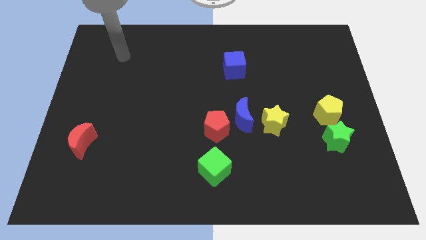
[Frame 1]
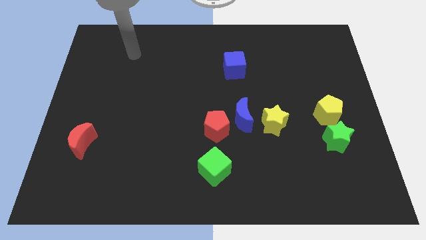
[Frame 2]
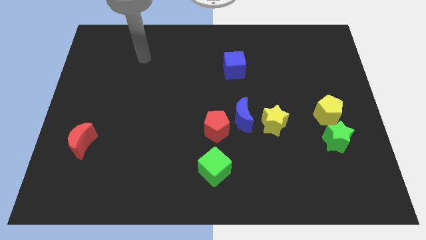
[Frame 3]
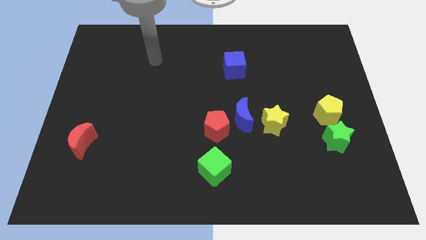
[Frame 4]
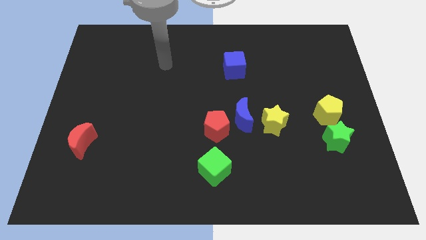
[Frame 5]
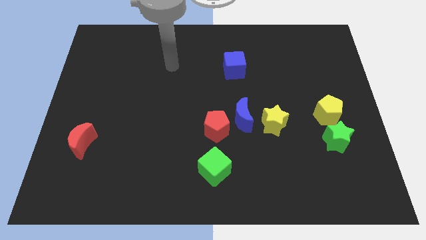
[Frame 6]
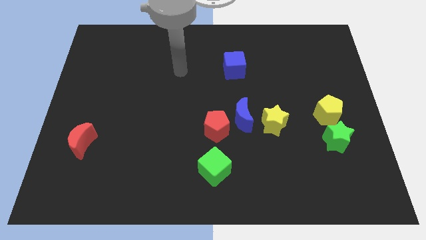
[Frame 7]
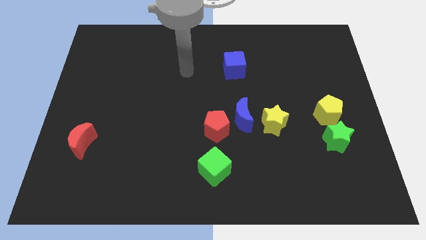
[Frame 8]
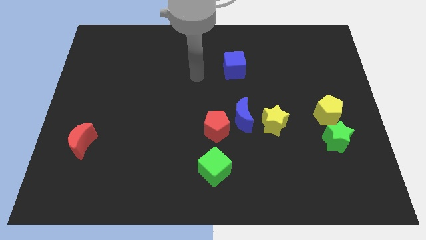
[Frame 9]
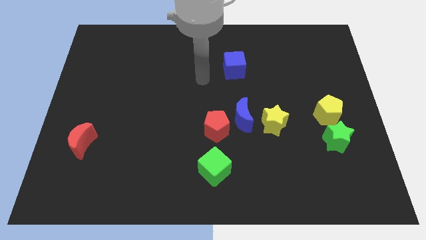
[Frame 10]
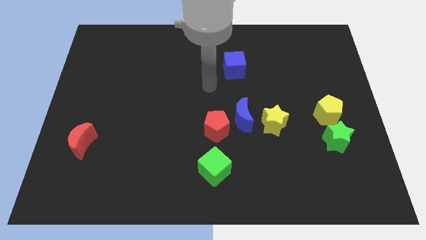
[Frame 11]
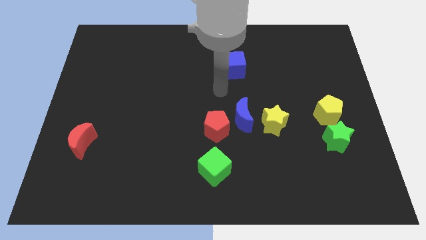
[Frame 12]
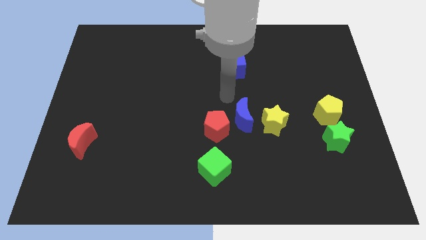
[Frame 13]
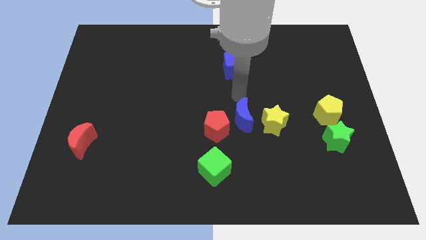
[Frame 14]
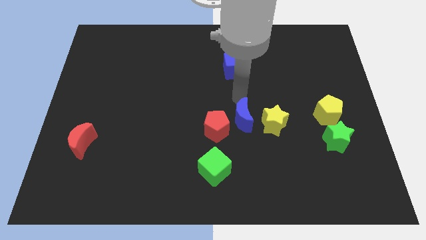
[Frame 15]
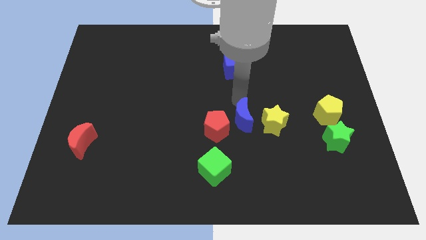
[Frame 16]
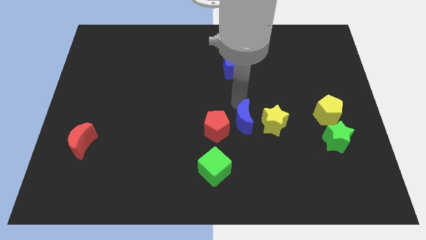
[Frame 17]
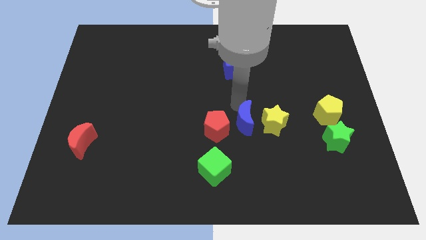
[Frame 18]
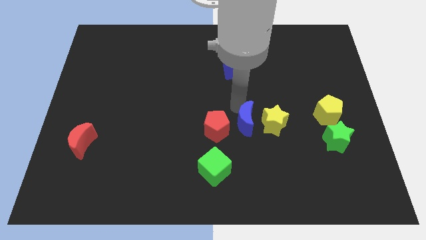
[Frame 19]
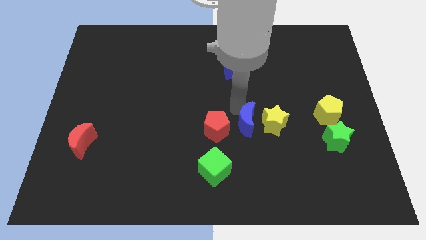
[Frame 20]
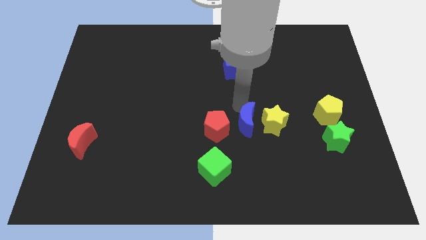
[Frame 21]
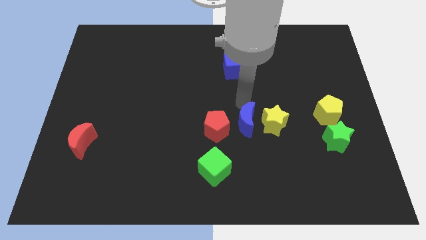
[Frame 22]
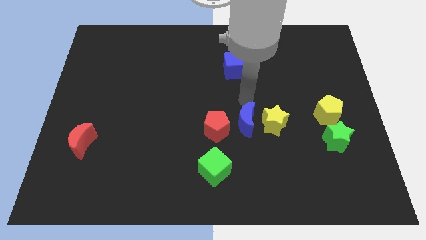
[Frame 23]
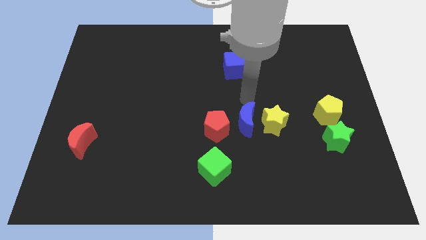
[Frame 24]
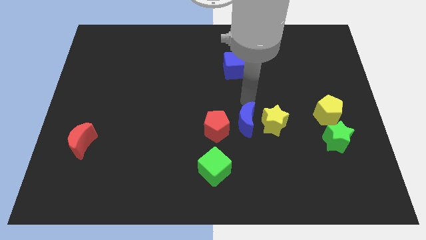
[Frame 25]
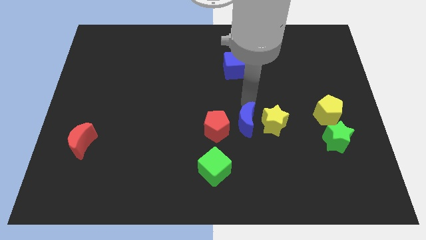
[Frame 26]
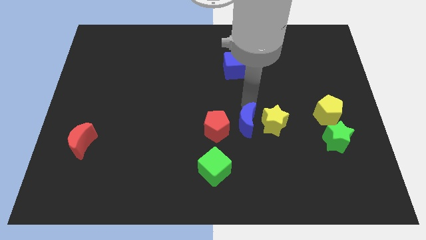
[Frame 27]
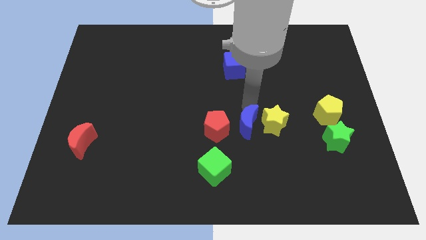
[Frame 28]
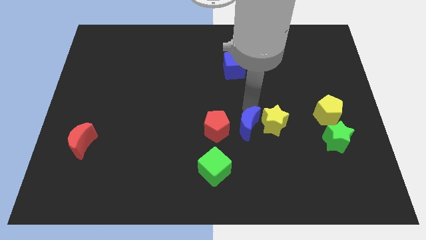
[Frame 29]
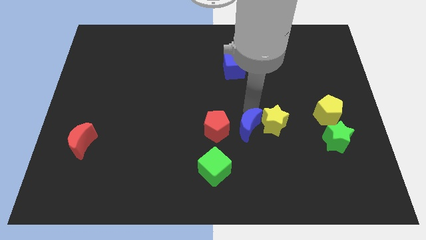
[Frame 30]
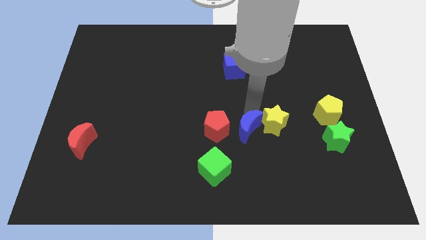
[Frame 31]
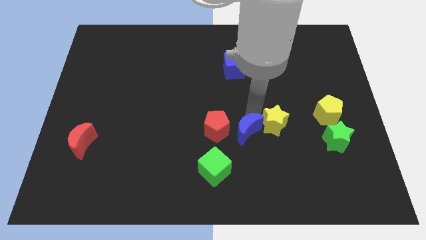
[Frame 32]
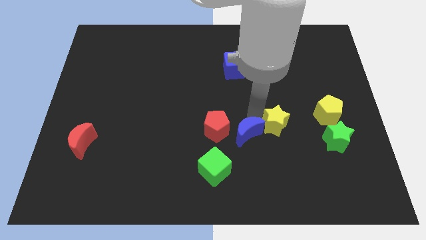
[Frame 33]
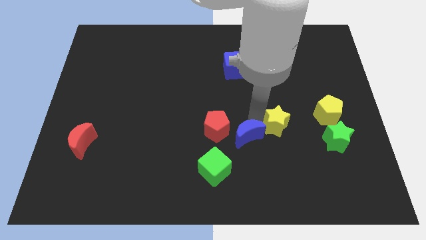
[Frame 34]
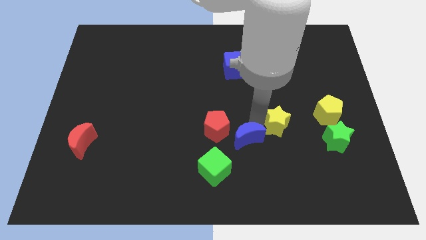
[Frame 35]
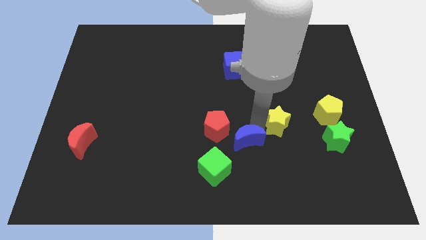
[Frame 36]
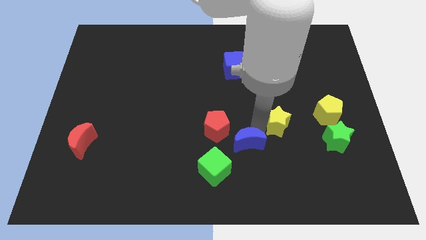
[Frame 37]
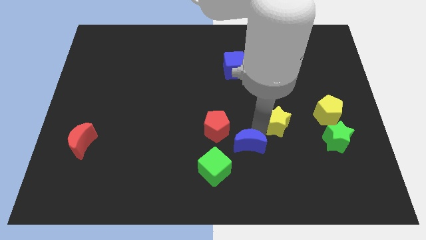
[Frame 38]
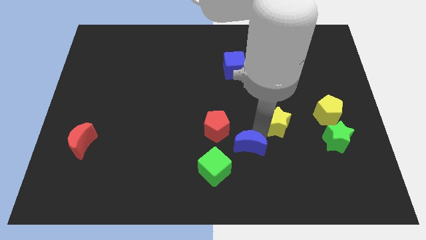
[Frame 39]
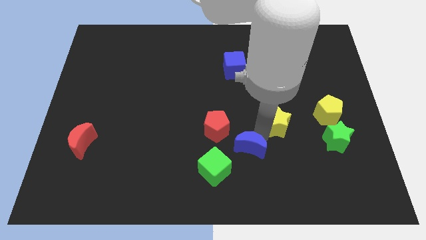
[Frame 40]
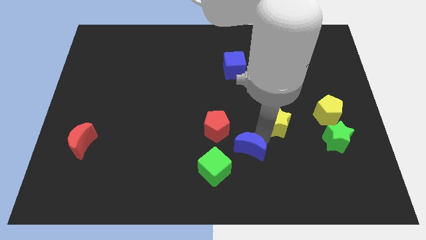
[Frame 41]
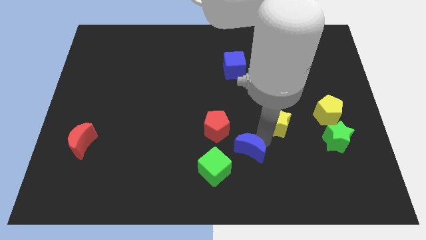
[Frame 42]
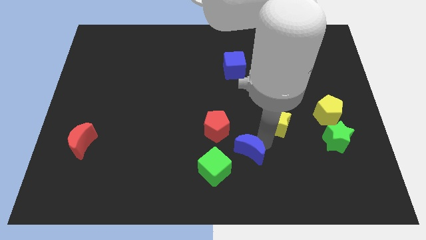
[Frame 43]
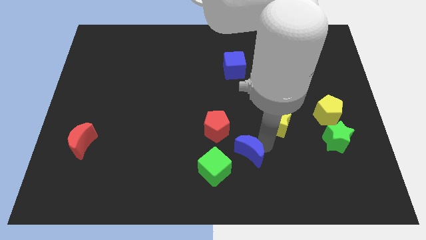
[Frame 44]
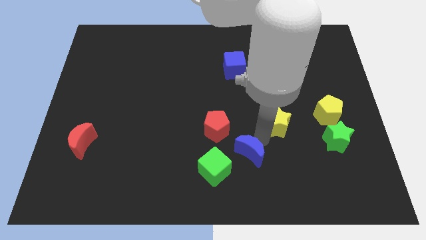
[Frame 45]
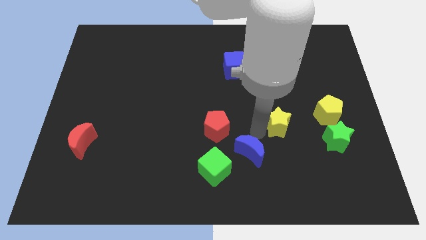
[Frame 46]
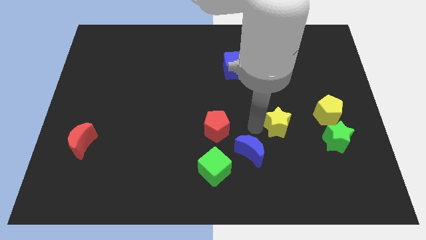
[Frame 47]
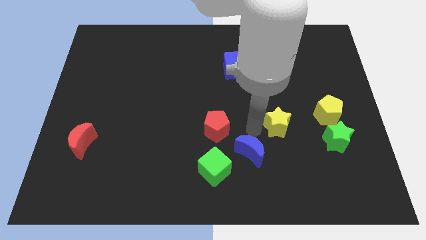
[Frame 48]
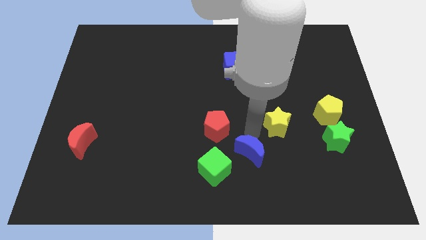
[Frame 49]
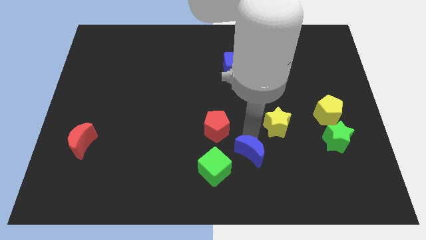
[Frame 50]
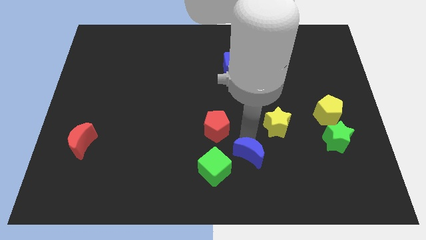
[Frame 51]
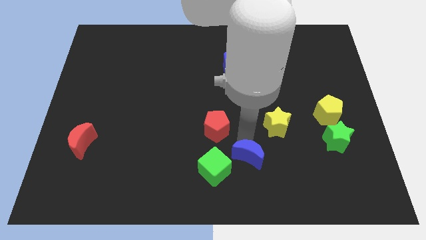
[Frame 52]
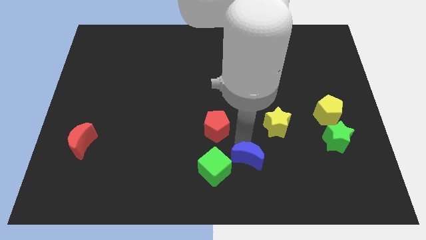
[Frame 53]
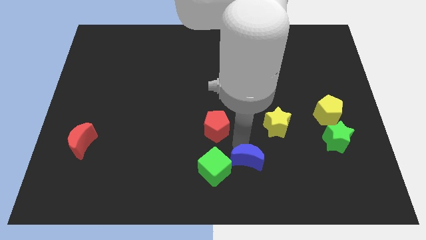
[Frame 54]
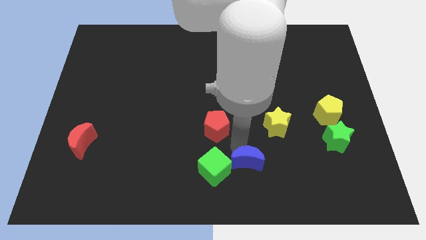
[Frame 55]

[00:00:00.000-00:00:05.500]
push the blue moon to the bottom

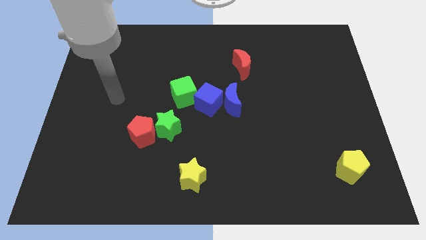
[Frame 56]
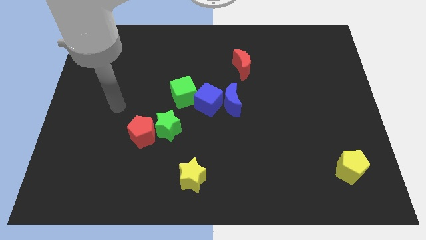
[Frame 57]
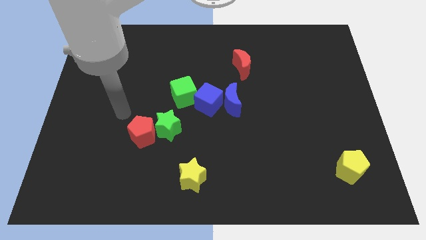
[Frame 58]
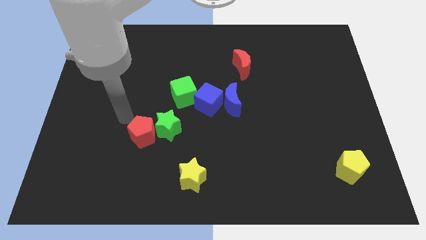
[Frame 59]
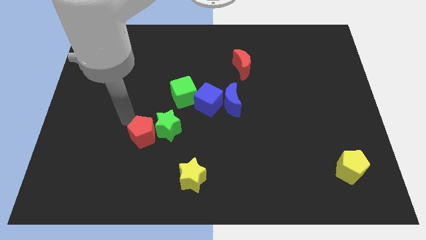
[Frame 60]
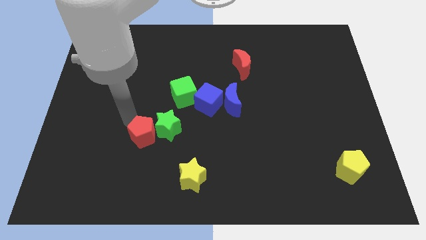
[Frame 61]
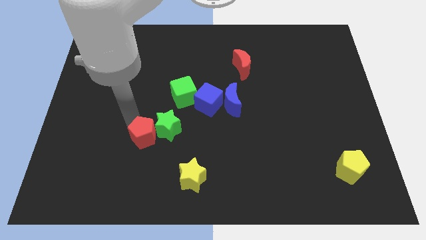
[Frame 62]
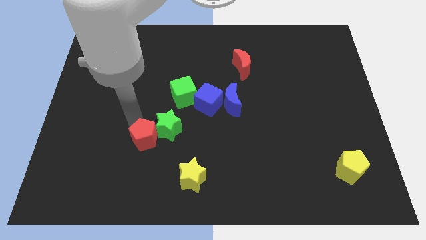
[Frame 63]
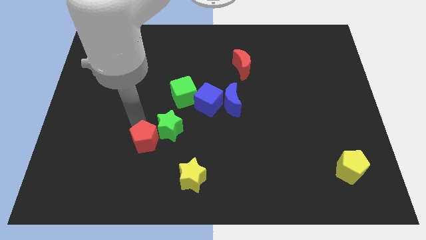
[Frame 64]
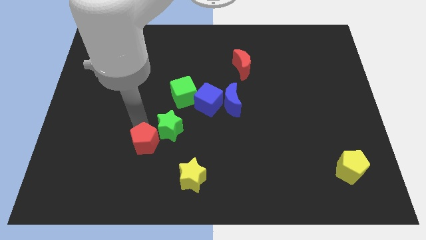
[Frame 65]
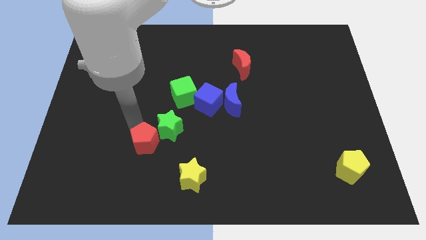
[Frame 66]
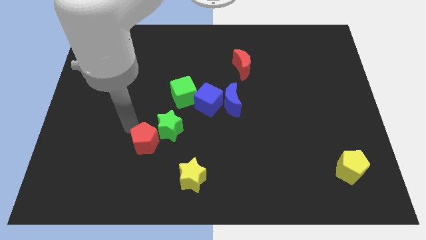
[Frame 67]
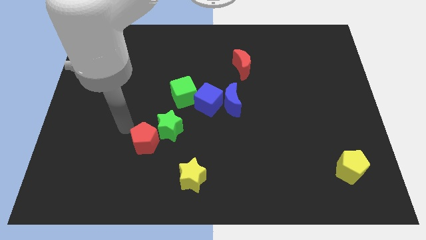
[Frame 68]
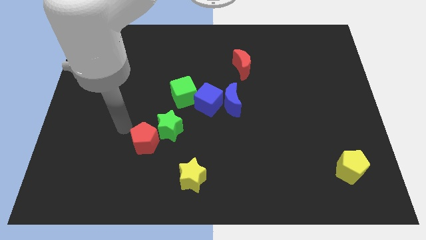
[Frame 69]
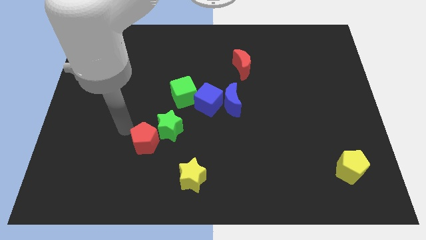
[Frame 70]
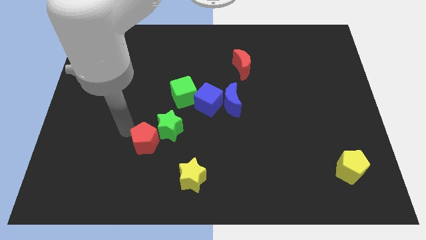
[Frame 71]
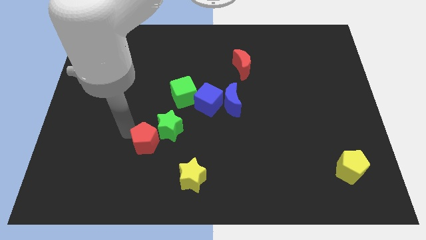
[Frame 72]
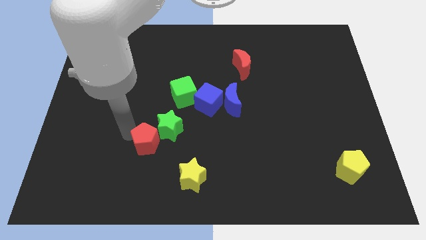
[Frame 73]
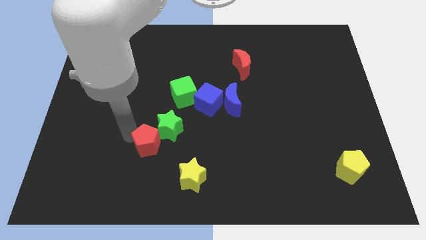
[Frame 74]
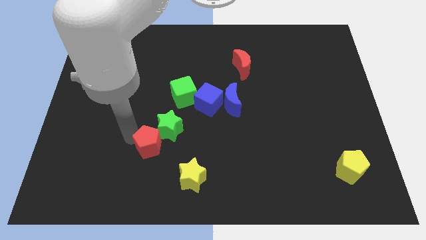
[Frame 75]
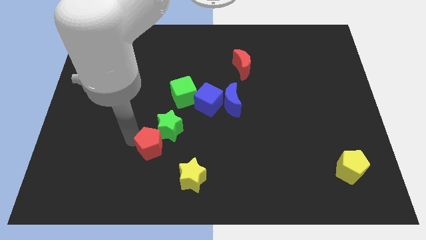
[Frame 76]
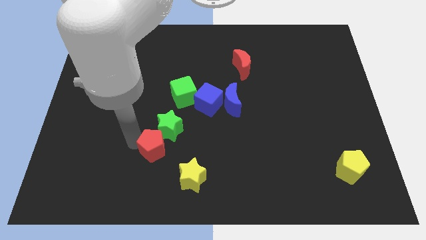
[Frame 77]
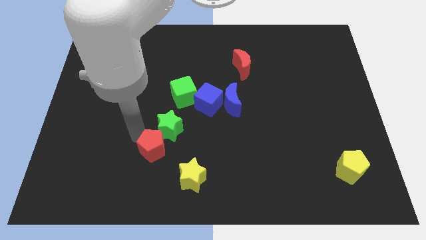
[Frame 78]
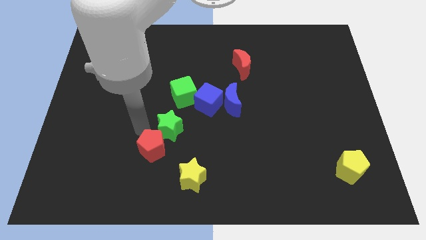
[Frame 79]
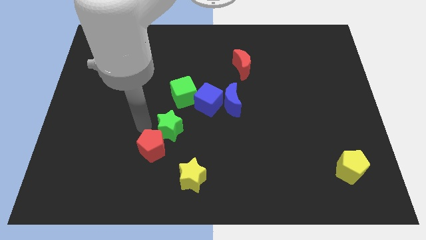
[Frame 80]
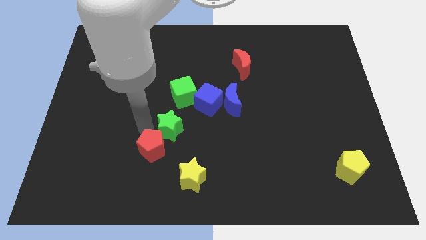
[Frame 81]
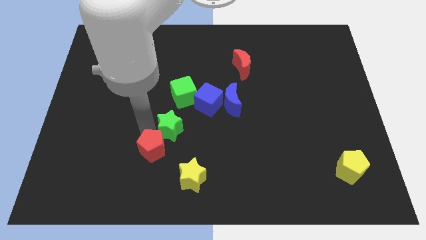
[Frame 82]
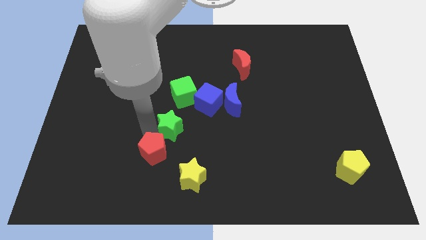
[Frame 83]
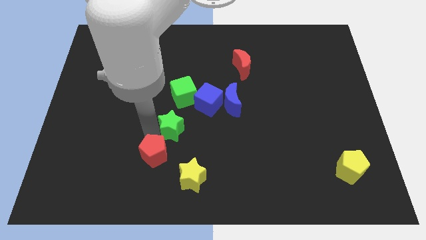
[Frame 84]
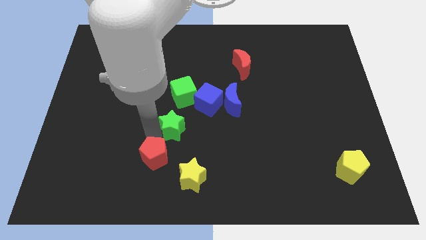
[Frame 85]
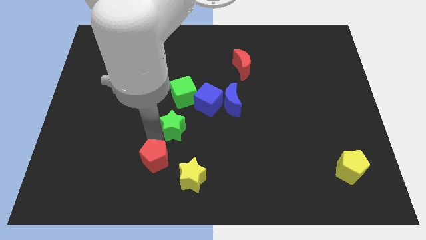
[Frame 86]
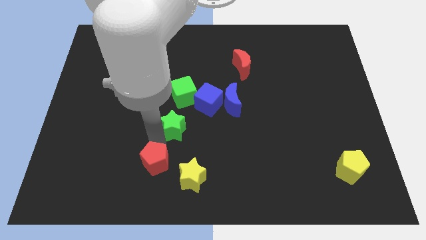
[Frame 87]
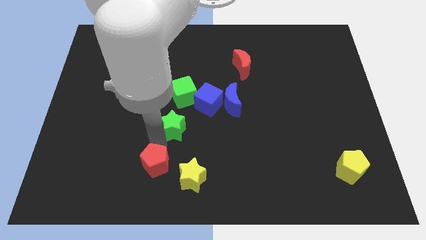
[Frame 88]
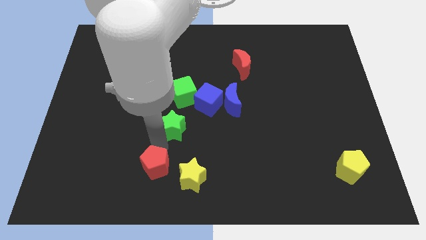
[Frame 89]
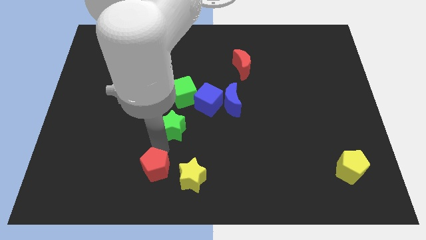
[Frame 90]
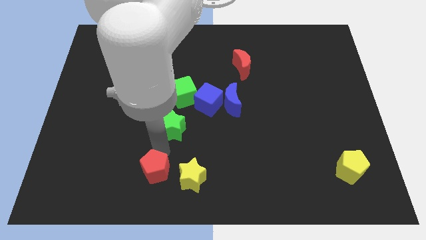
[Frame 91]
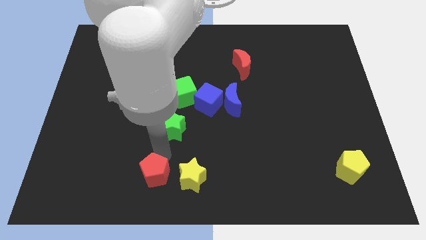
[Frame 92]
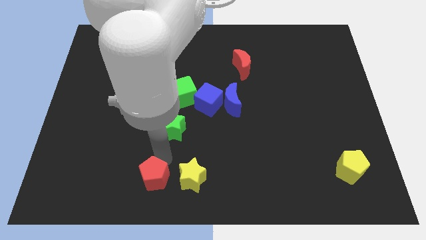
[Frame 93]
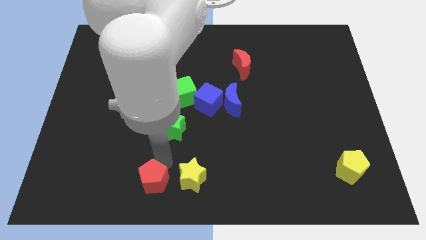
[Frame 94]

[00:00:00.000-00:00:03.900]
move the red pentagon to the bottom
